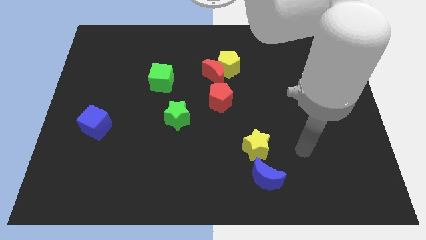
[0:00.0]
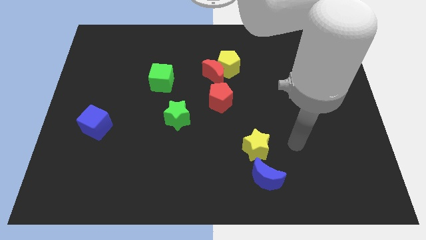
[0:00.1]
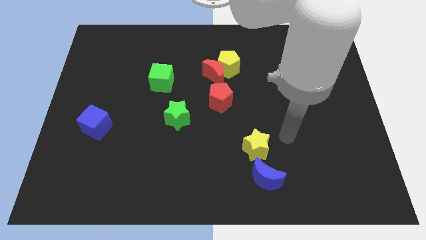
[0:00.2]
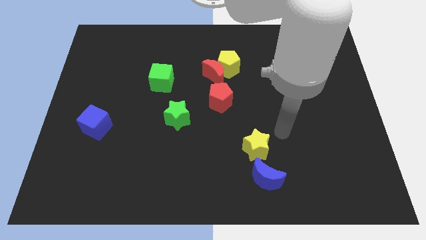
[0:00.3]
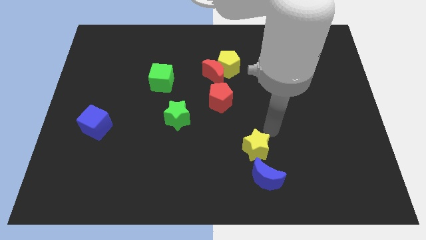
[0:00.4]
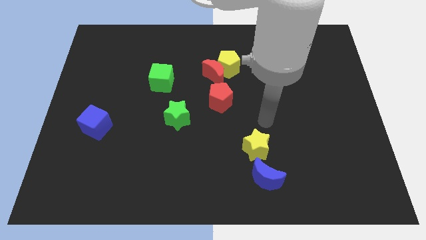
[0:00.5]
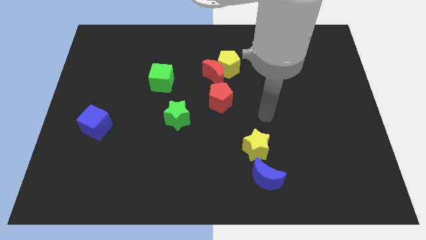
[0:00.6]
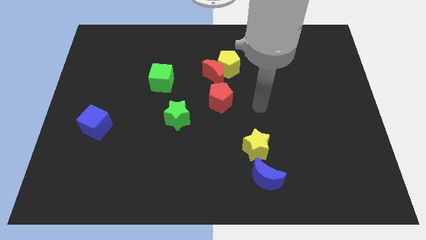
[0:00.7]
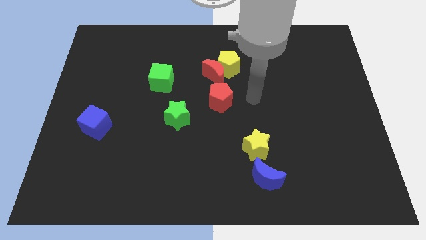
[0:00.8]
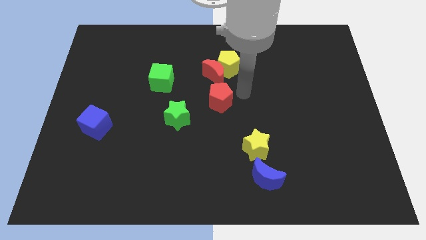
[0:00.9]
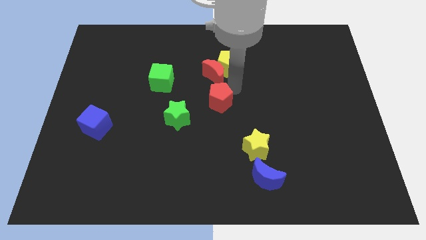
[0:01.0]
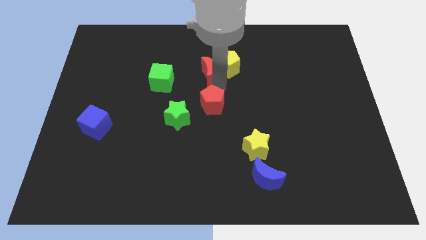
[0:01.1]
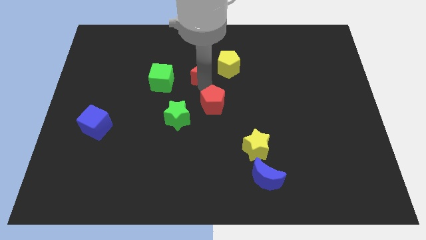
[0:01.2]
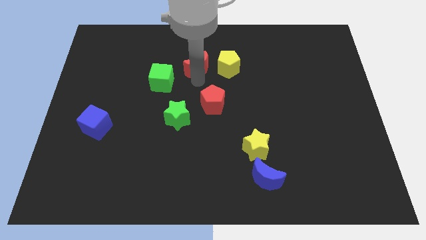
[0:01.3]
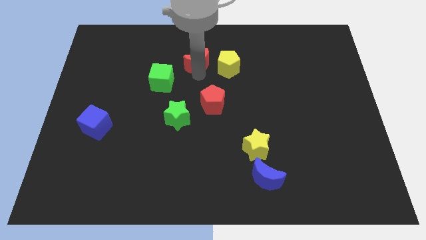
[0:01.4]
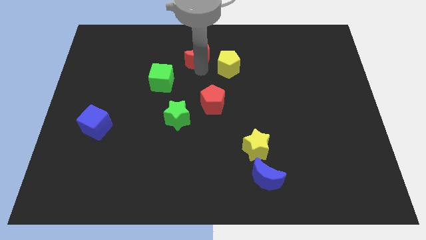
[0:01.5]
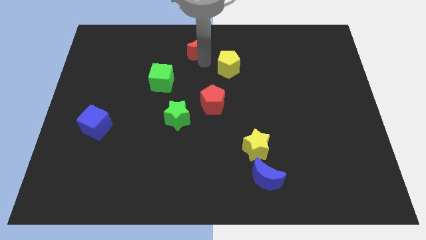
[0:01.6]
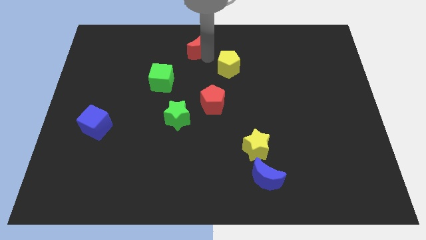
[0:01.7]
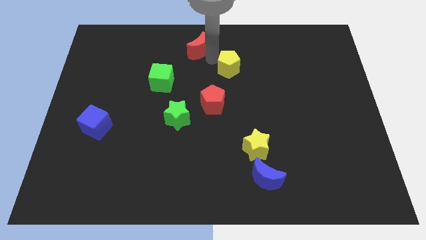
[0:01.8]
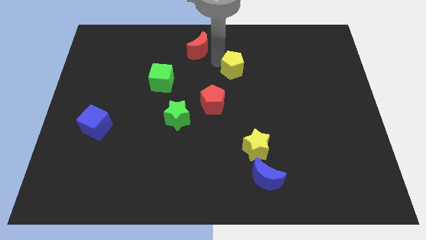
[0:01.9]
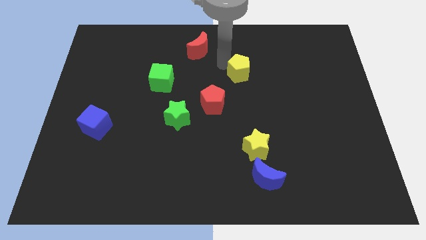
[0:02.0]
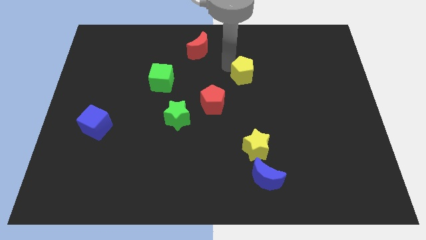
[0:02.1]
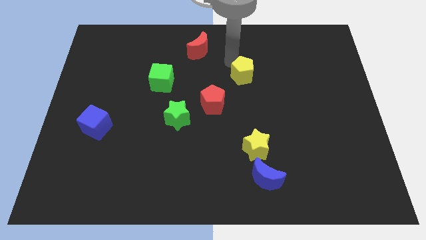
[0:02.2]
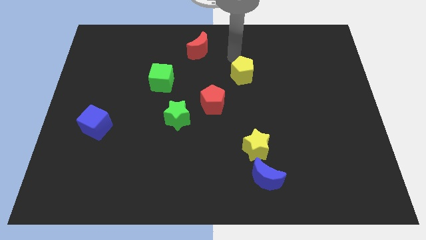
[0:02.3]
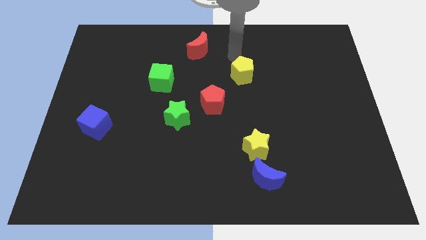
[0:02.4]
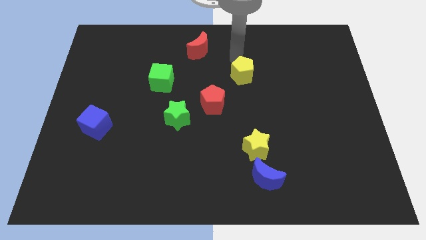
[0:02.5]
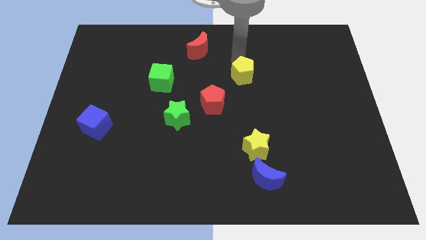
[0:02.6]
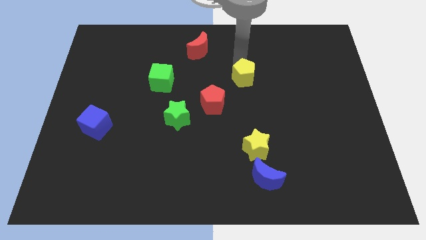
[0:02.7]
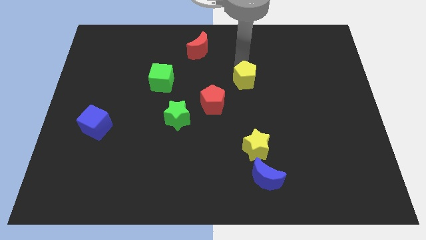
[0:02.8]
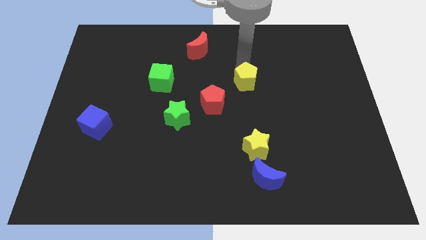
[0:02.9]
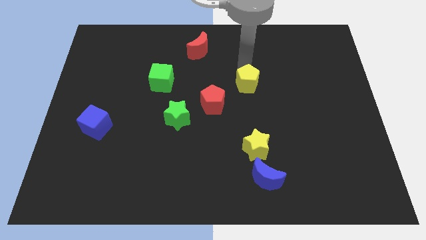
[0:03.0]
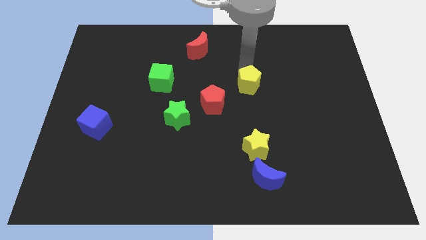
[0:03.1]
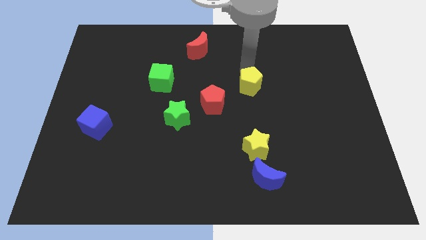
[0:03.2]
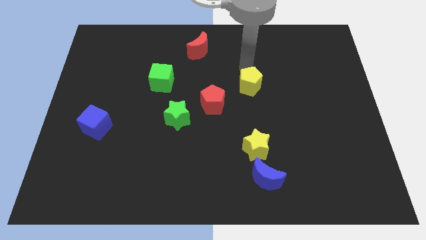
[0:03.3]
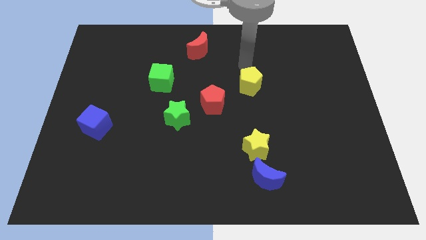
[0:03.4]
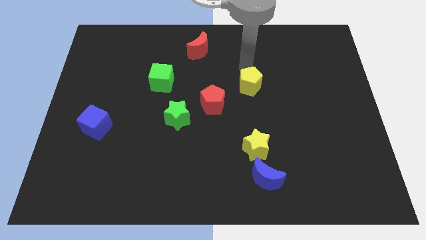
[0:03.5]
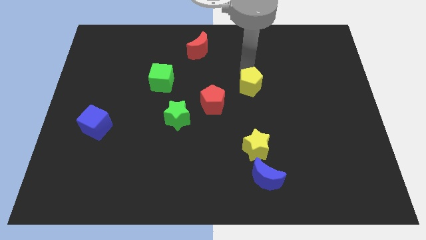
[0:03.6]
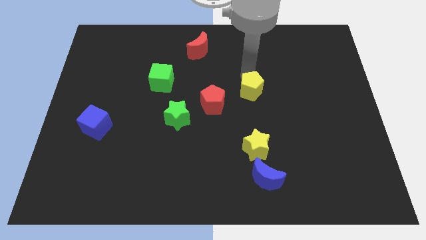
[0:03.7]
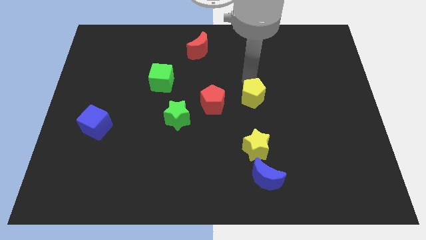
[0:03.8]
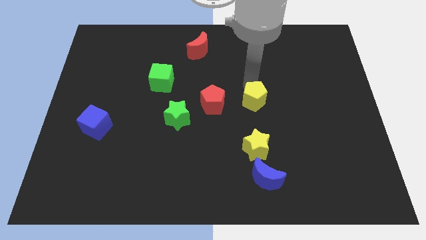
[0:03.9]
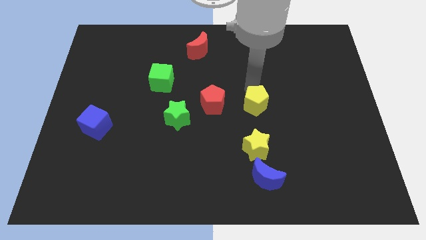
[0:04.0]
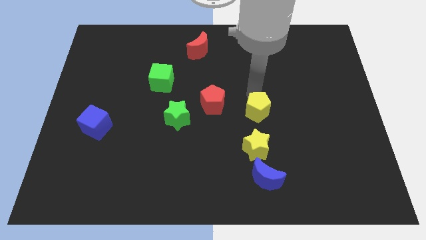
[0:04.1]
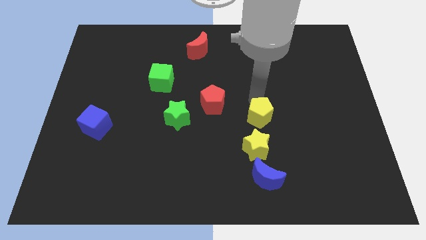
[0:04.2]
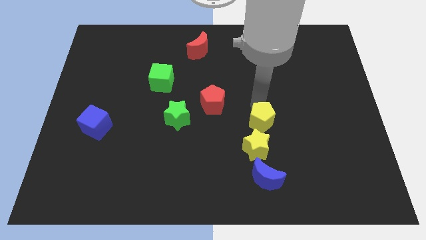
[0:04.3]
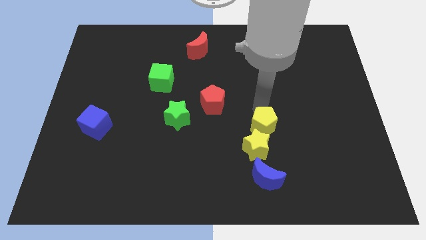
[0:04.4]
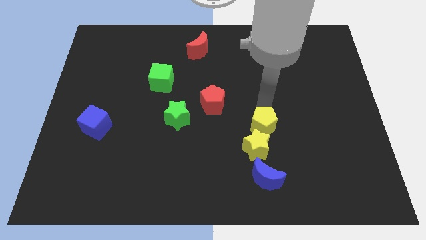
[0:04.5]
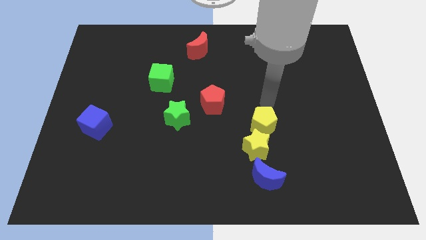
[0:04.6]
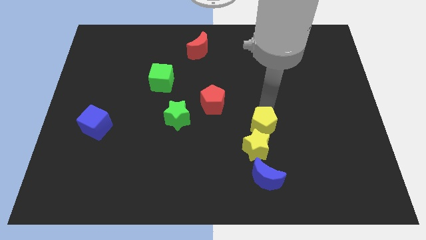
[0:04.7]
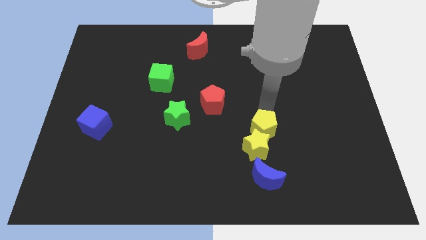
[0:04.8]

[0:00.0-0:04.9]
put the yellow pentagon to the yellow star

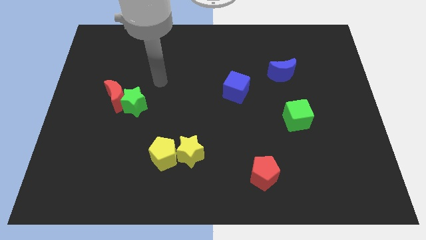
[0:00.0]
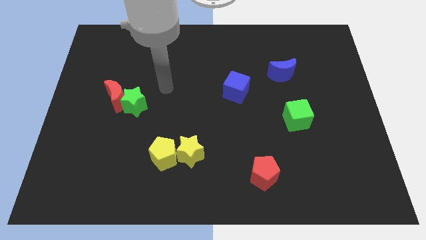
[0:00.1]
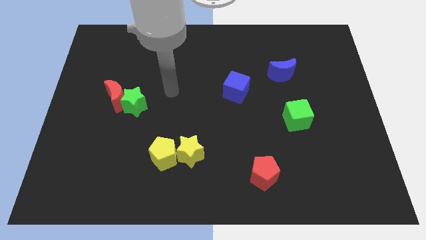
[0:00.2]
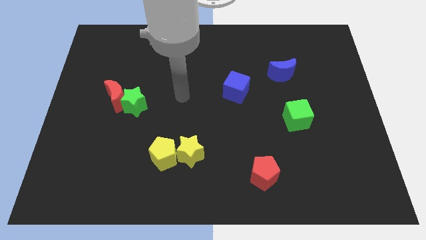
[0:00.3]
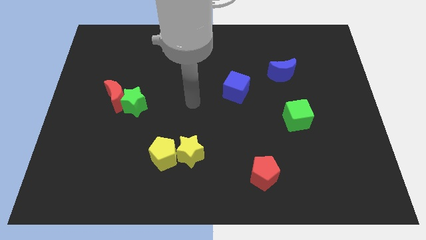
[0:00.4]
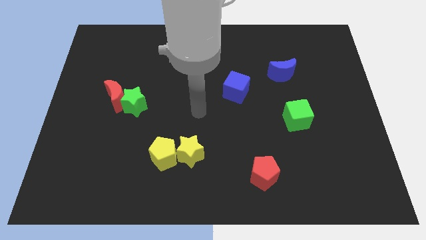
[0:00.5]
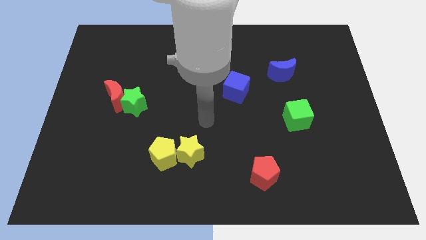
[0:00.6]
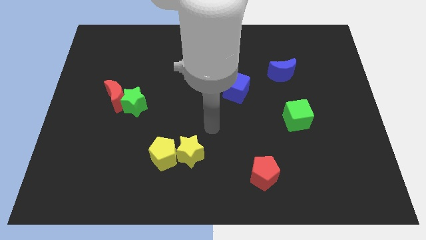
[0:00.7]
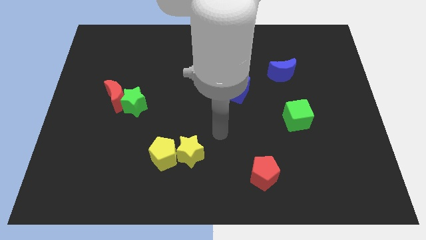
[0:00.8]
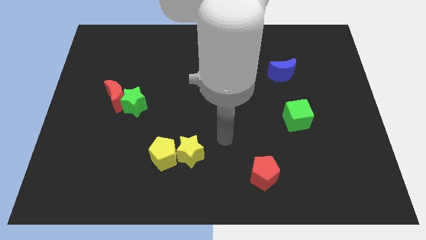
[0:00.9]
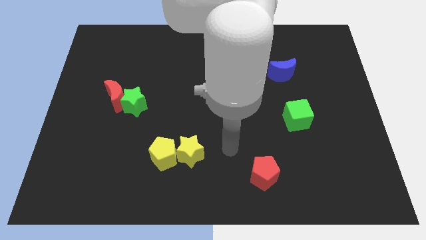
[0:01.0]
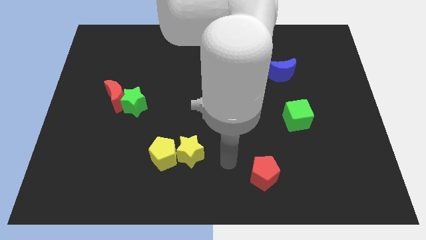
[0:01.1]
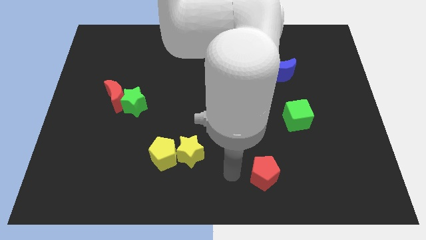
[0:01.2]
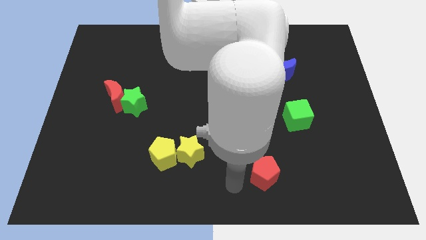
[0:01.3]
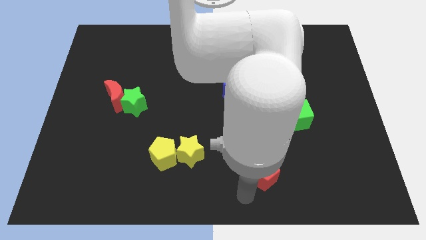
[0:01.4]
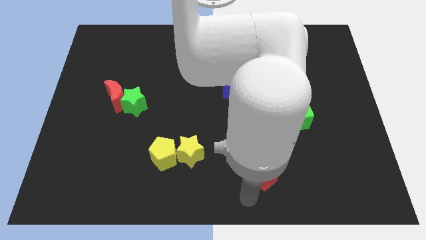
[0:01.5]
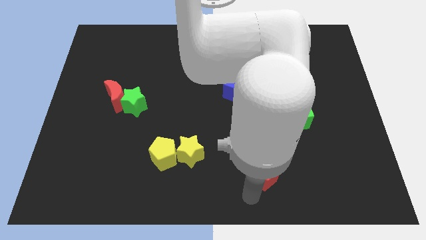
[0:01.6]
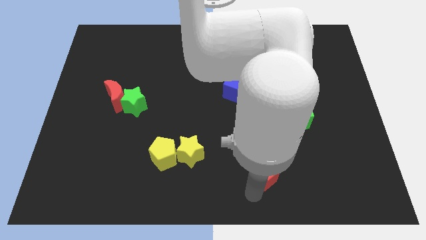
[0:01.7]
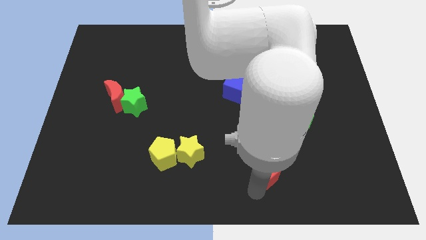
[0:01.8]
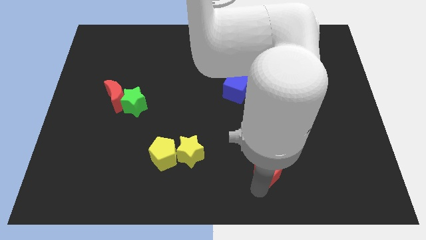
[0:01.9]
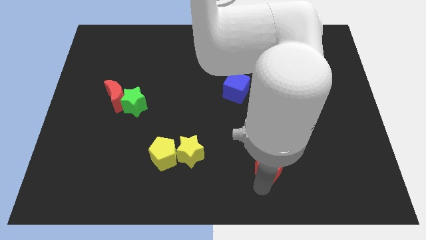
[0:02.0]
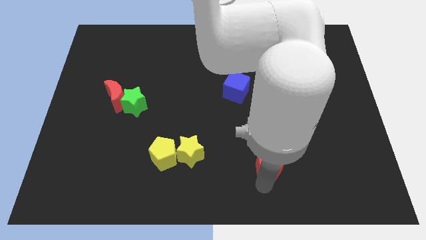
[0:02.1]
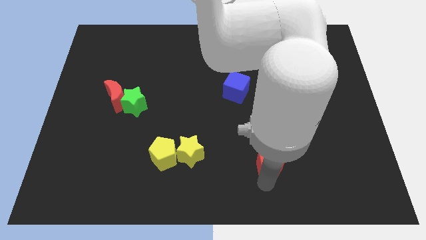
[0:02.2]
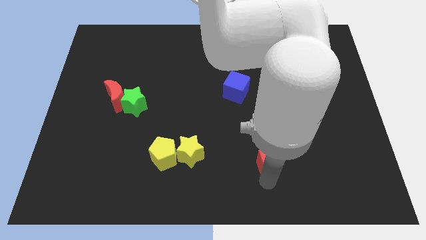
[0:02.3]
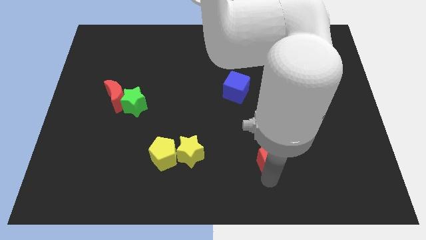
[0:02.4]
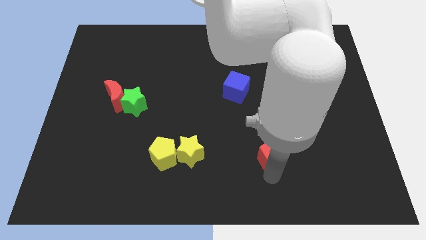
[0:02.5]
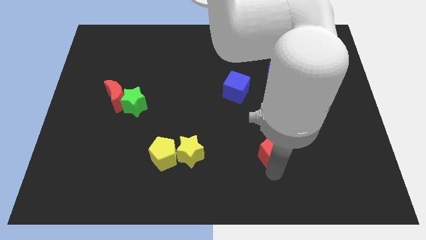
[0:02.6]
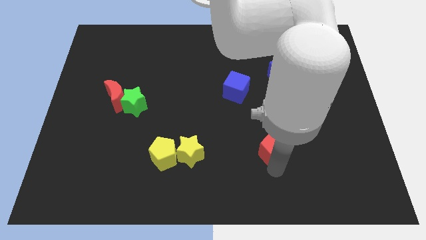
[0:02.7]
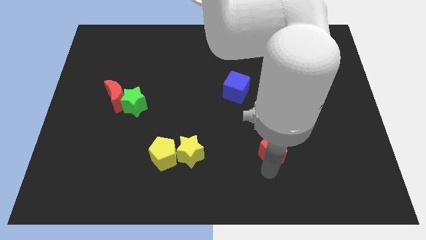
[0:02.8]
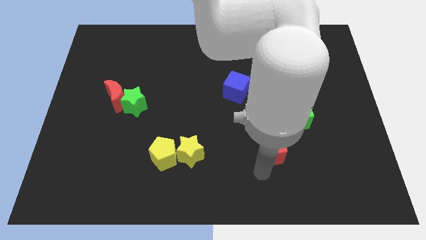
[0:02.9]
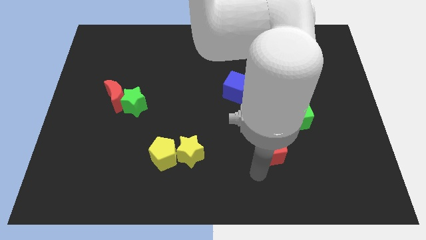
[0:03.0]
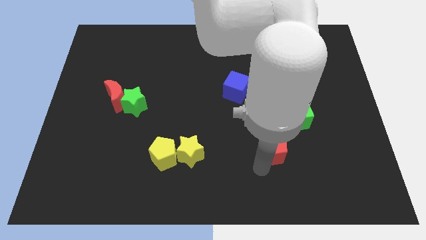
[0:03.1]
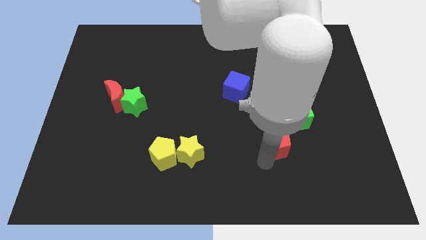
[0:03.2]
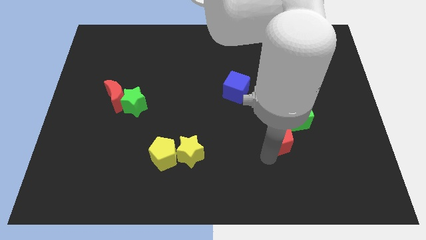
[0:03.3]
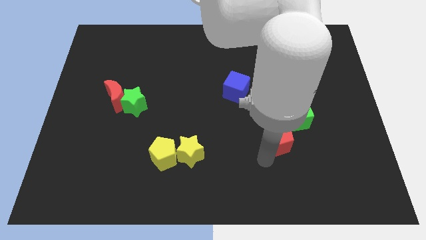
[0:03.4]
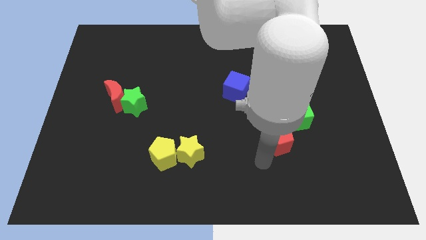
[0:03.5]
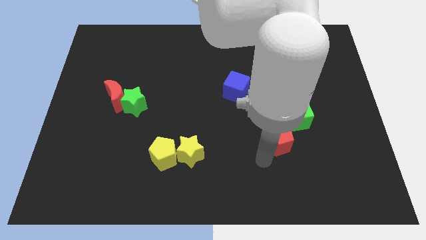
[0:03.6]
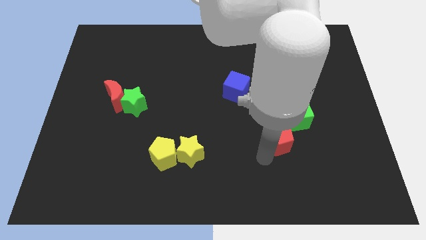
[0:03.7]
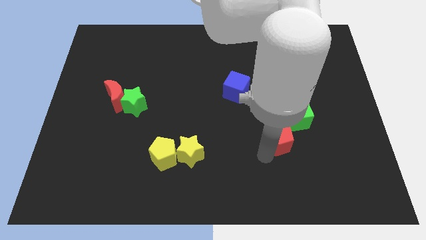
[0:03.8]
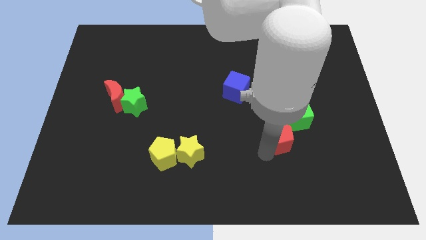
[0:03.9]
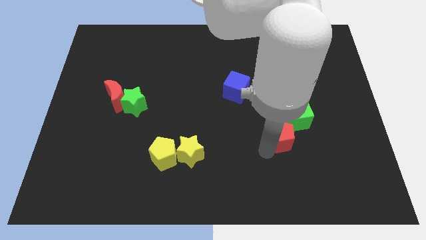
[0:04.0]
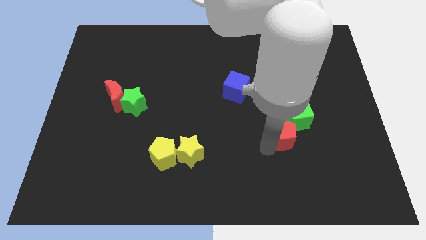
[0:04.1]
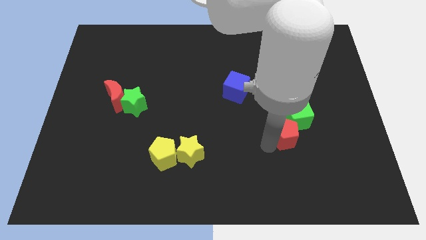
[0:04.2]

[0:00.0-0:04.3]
push the red pentagon towards the green cube
